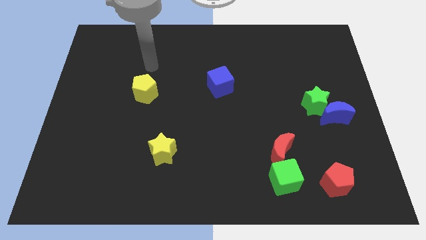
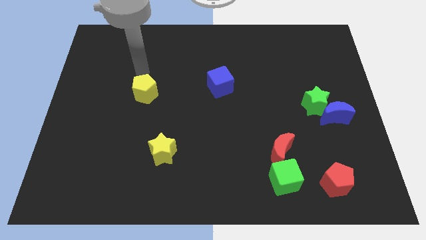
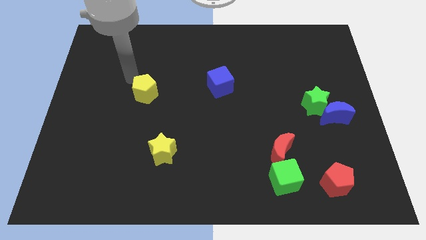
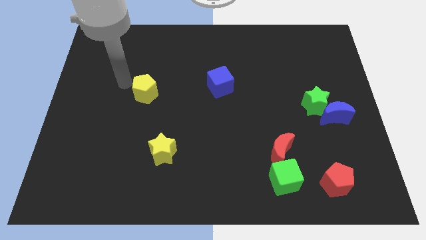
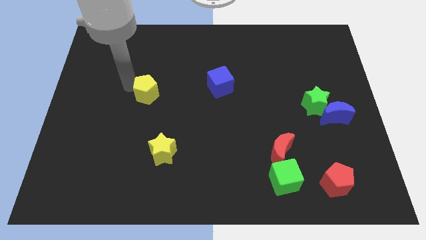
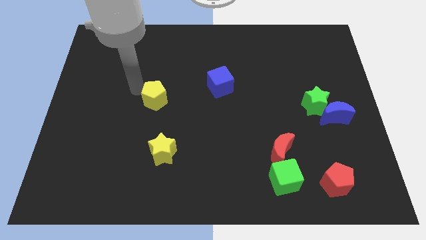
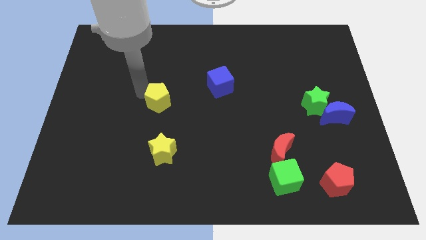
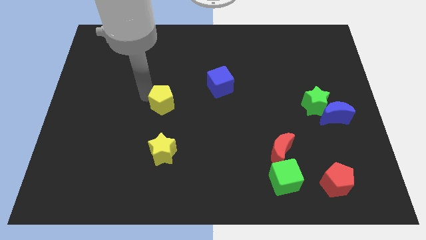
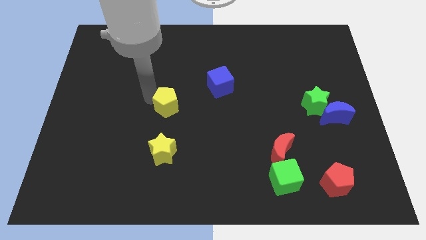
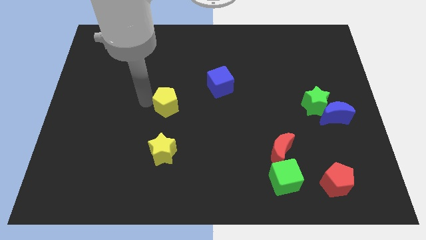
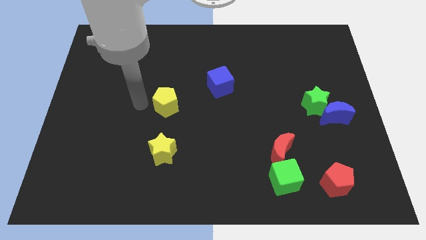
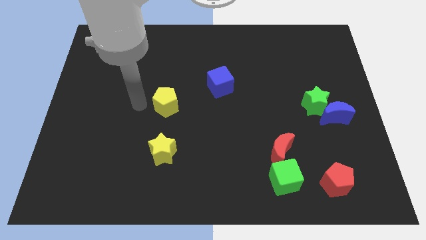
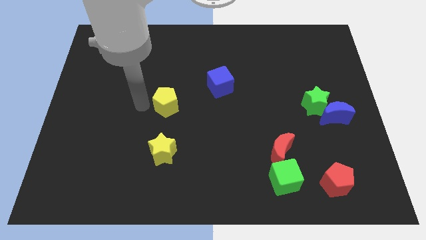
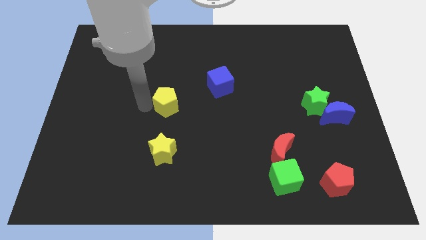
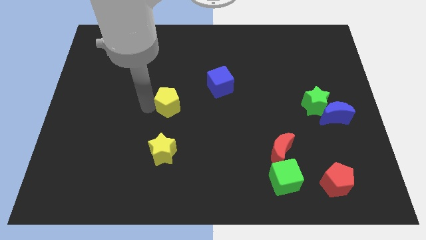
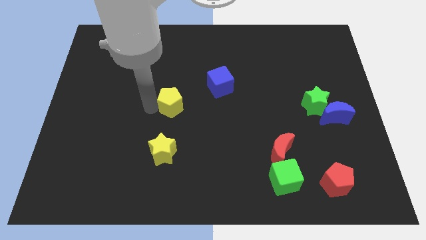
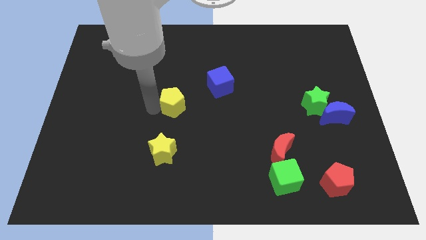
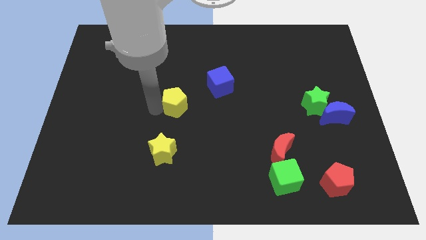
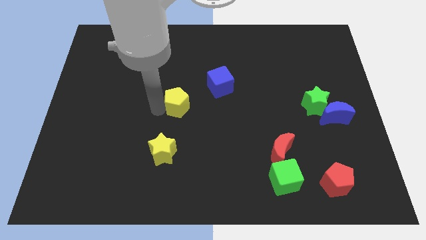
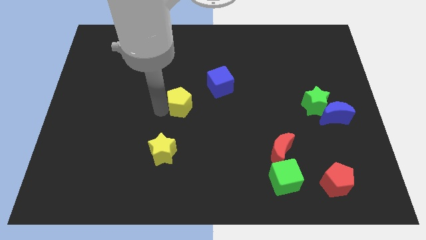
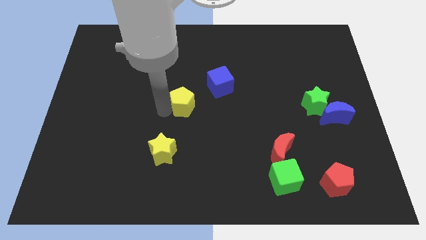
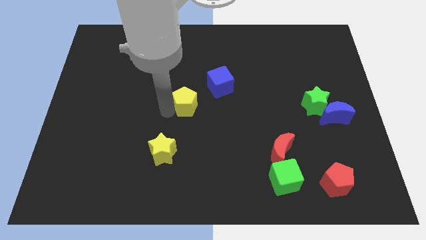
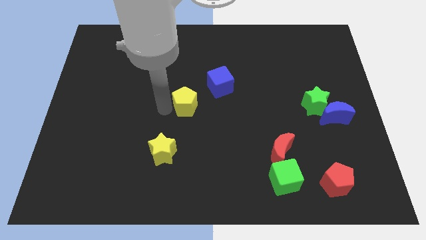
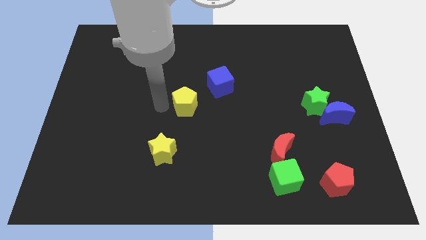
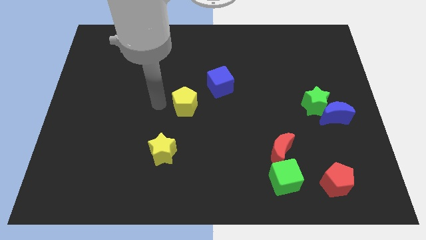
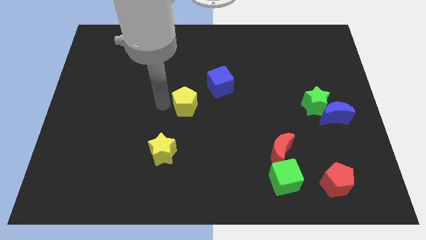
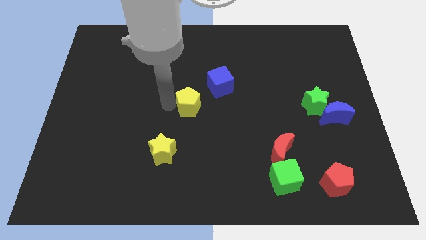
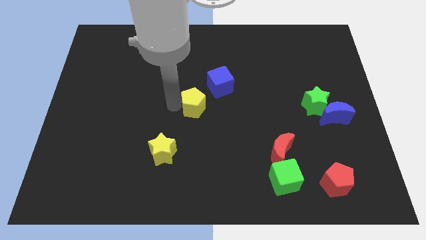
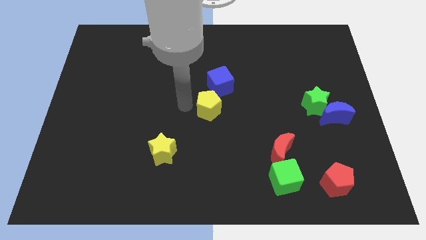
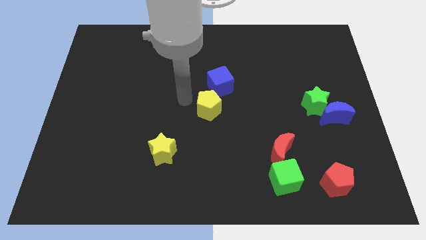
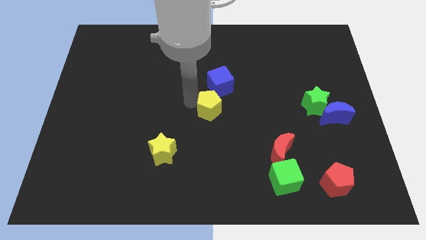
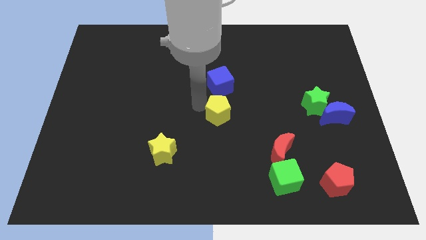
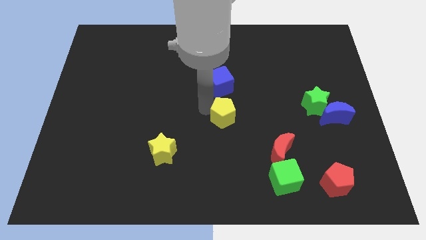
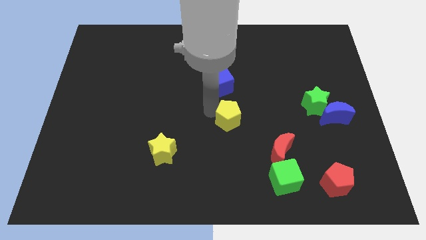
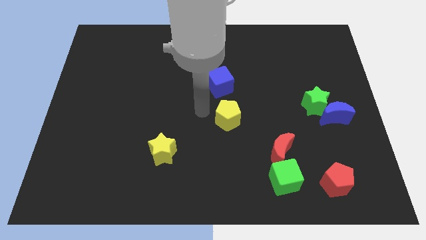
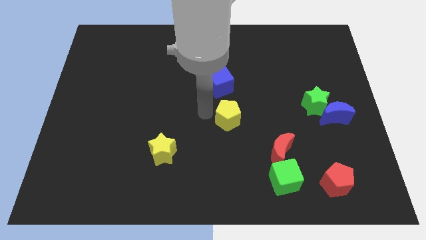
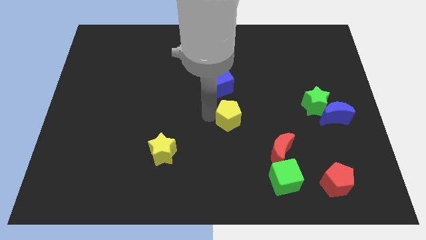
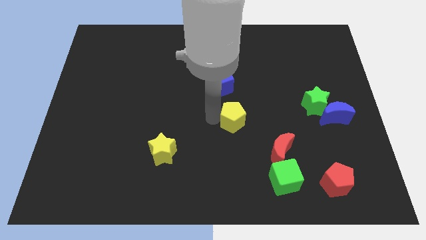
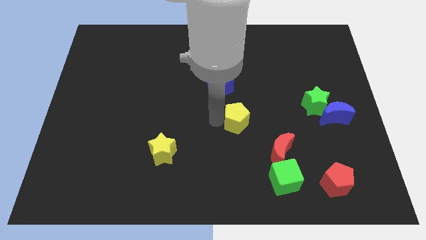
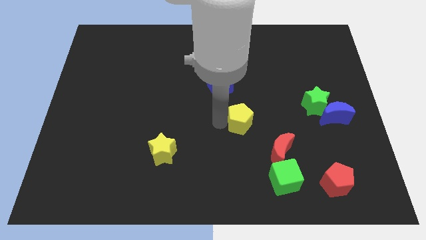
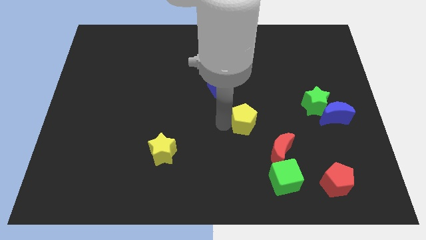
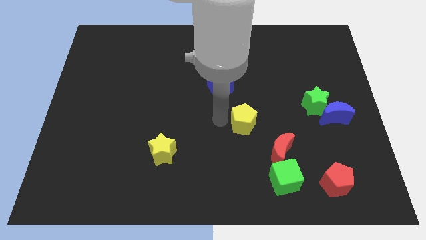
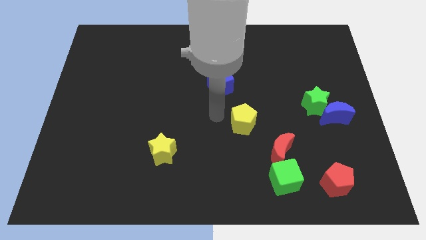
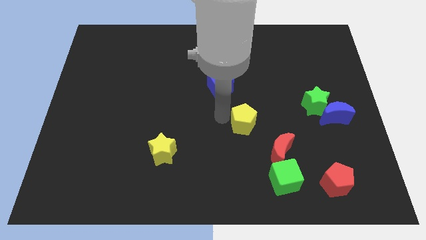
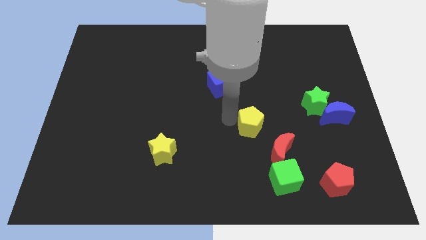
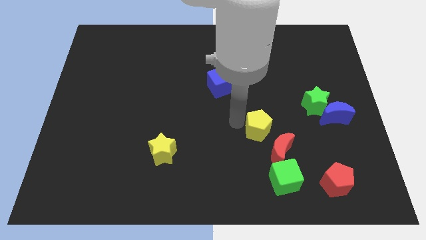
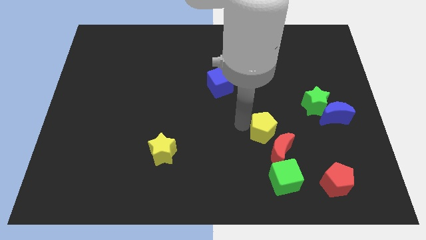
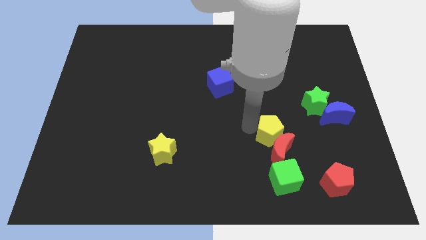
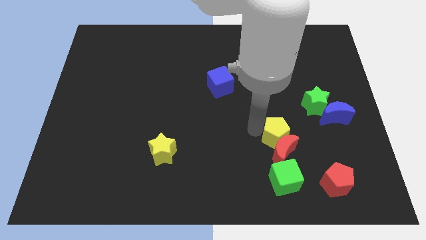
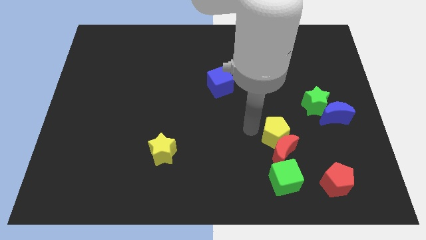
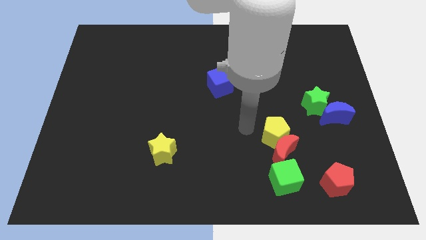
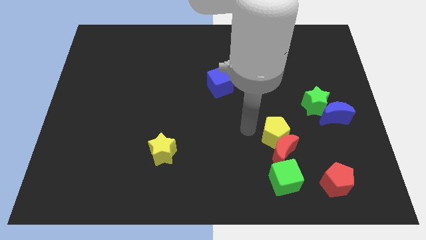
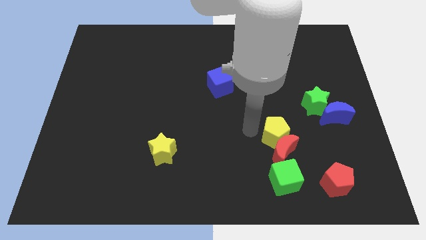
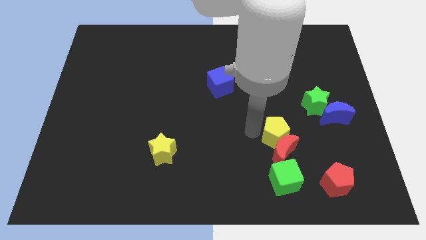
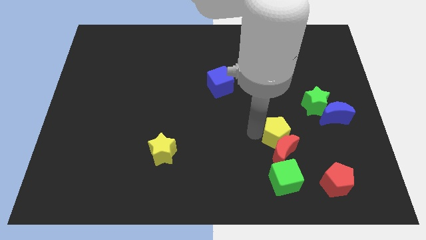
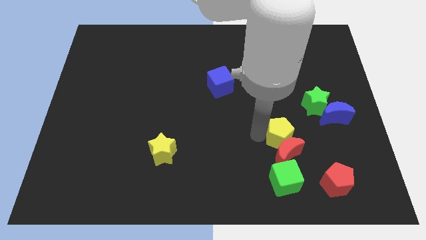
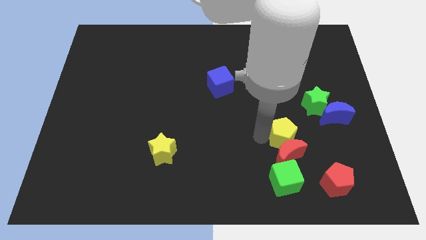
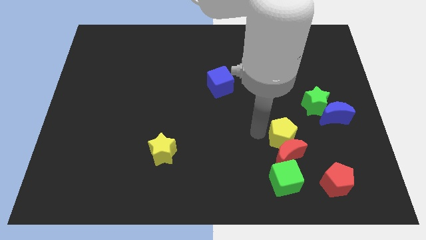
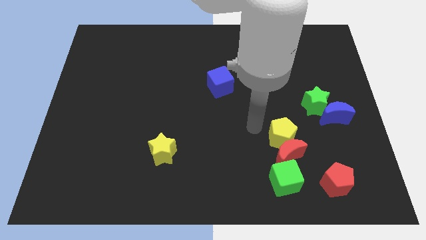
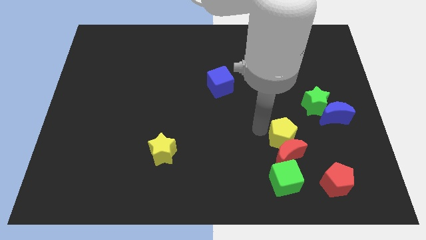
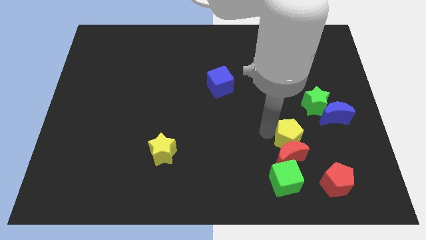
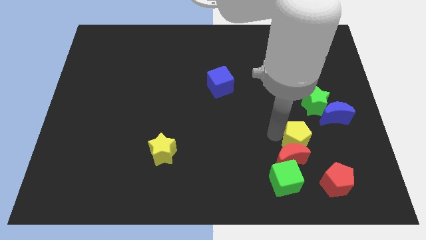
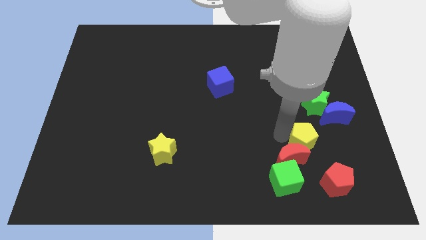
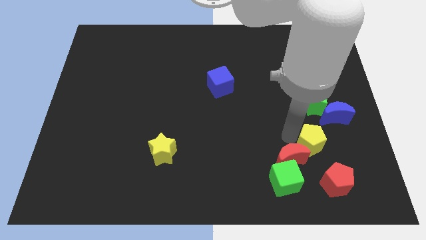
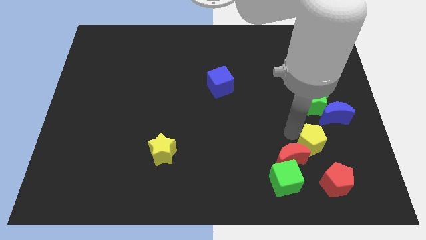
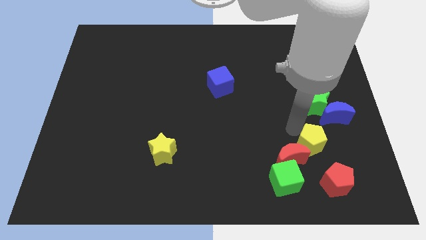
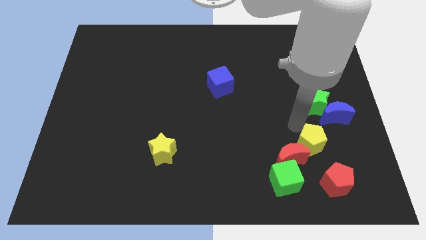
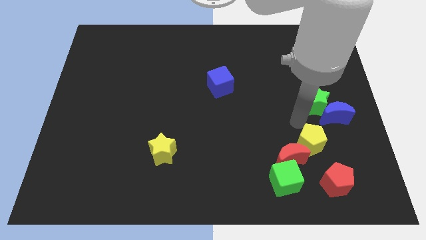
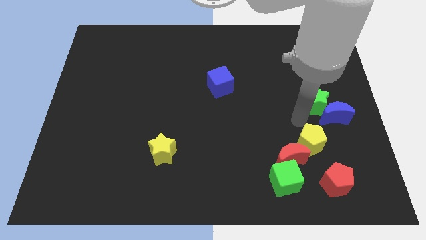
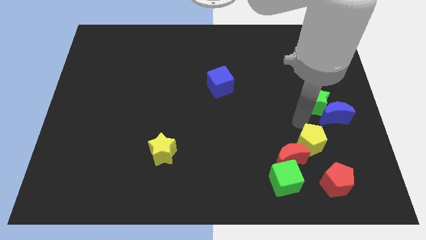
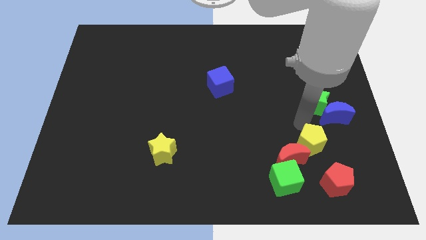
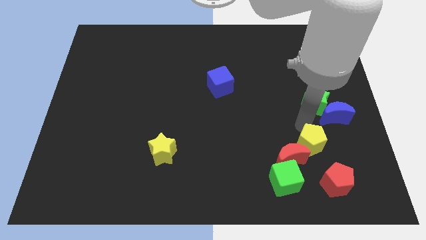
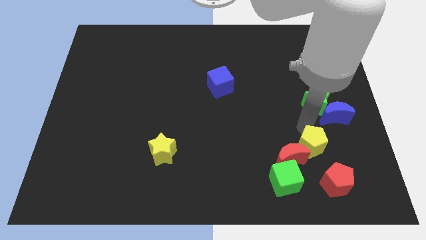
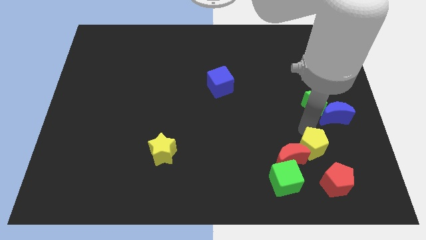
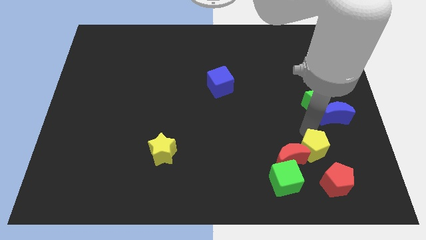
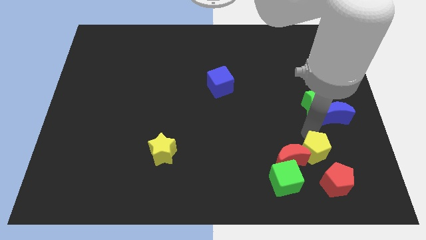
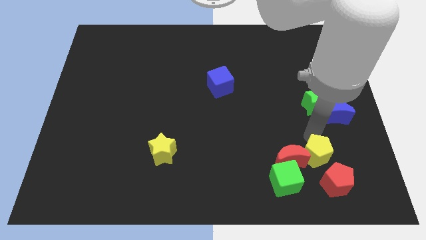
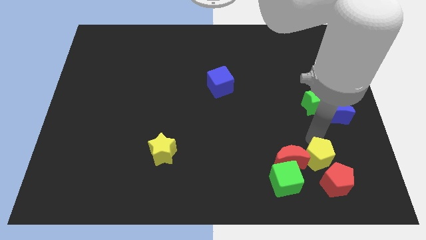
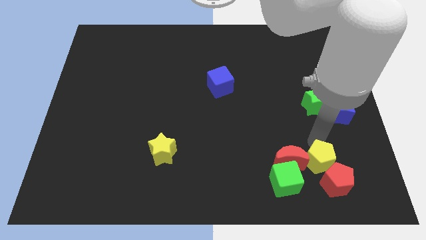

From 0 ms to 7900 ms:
put the yellow pentagon next to the red pentagon
